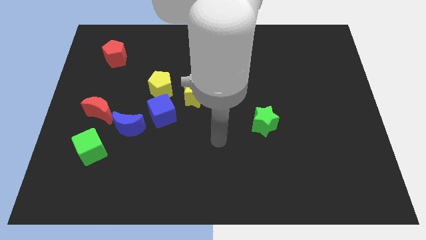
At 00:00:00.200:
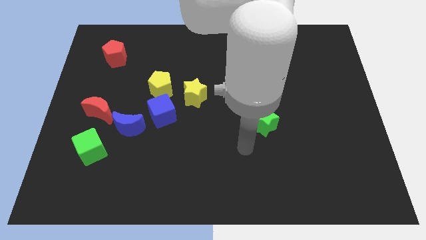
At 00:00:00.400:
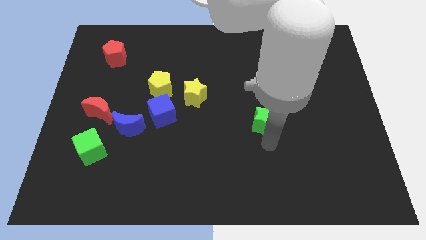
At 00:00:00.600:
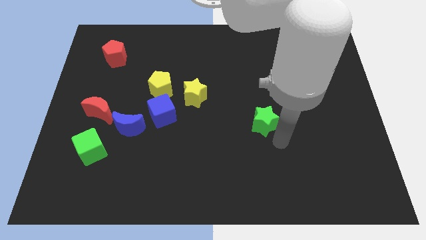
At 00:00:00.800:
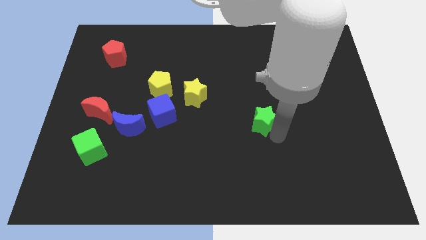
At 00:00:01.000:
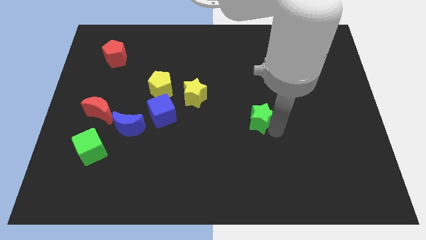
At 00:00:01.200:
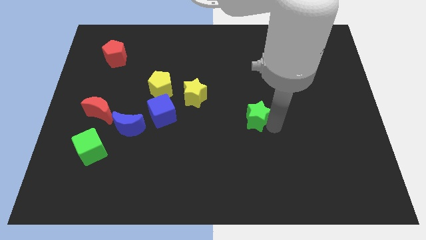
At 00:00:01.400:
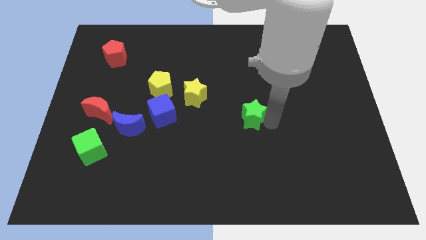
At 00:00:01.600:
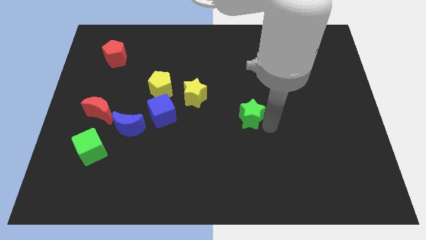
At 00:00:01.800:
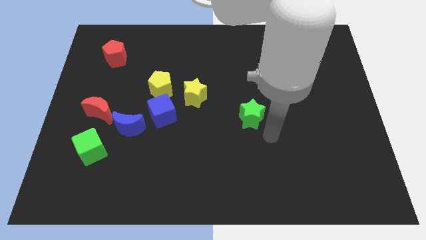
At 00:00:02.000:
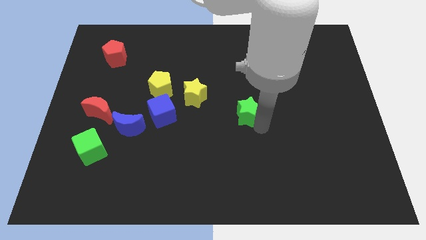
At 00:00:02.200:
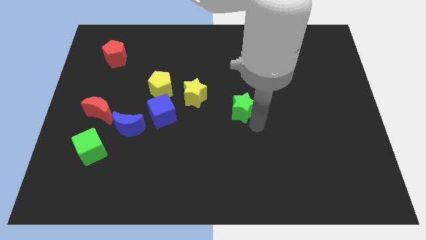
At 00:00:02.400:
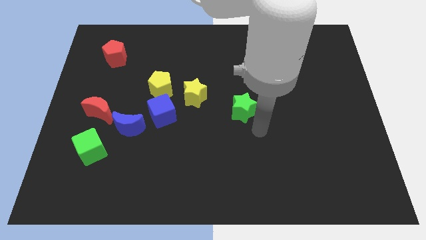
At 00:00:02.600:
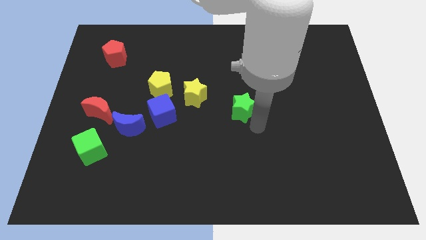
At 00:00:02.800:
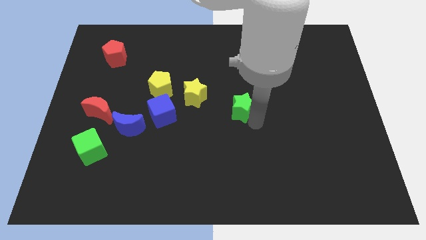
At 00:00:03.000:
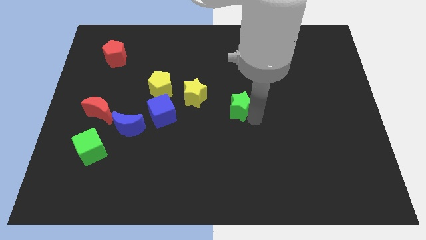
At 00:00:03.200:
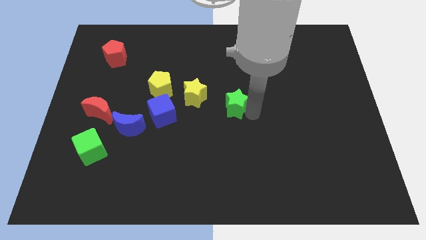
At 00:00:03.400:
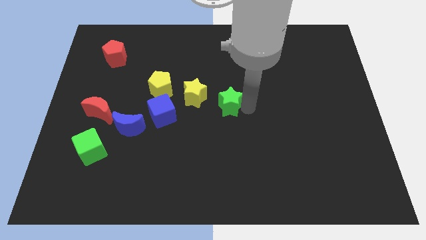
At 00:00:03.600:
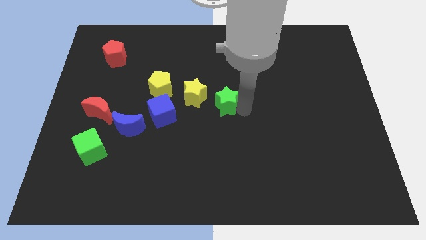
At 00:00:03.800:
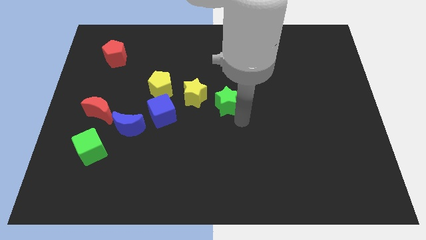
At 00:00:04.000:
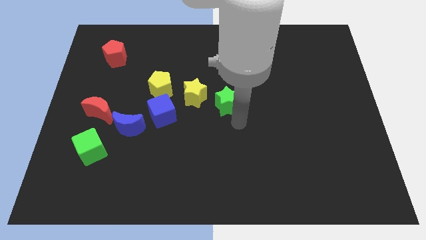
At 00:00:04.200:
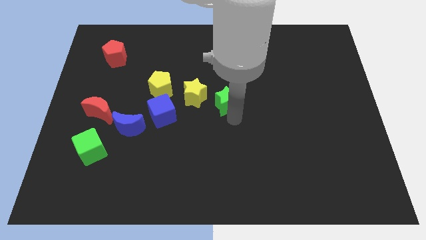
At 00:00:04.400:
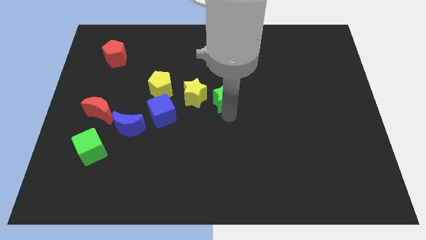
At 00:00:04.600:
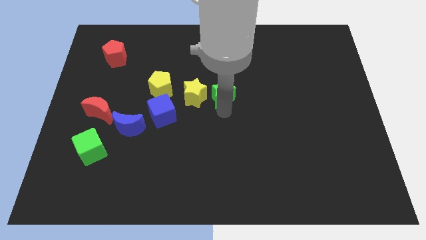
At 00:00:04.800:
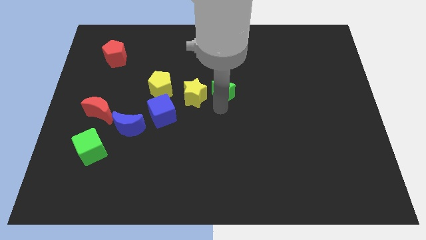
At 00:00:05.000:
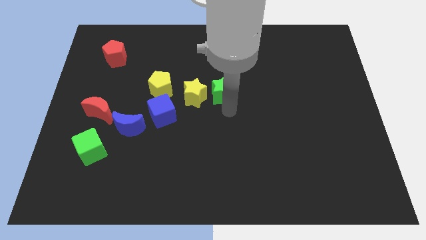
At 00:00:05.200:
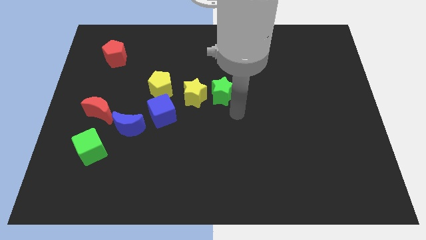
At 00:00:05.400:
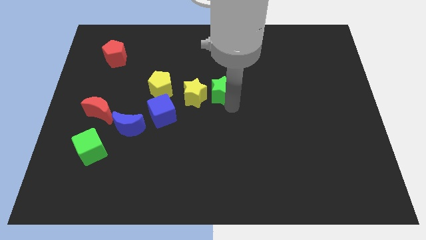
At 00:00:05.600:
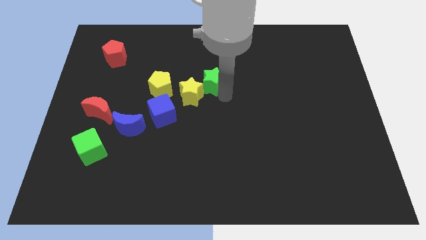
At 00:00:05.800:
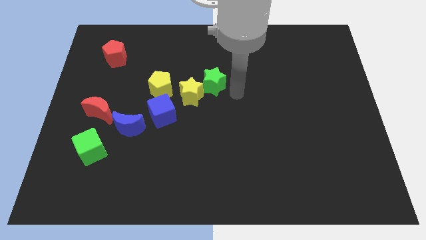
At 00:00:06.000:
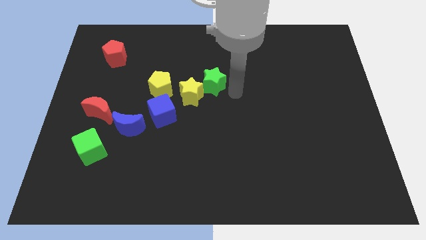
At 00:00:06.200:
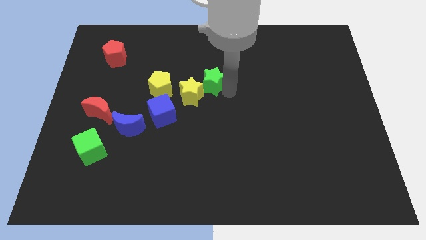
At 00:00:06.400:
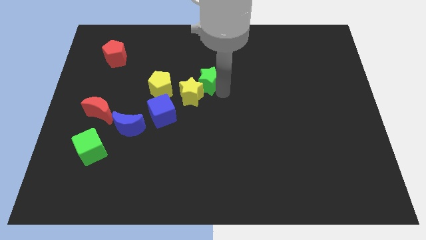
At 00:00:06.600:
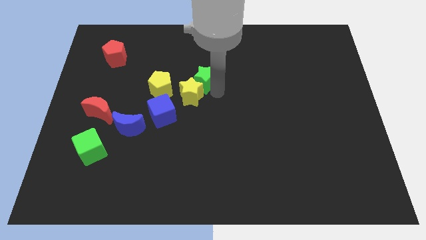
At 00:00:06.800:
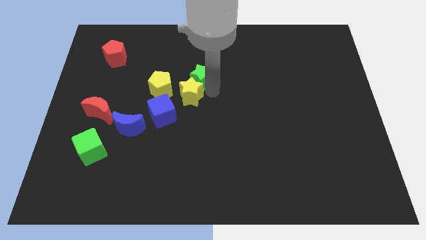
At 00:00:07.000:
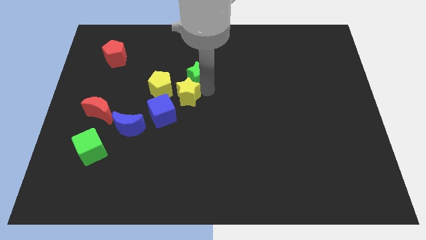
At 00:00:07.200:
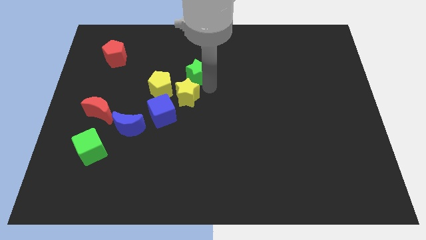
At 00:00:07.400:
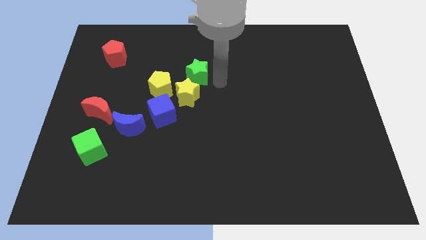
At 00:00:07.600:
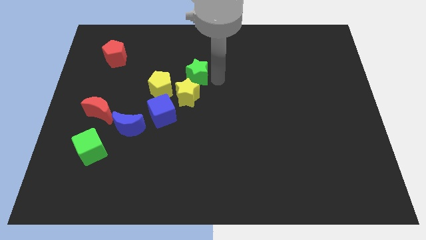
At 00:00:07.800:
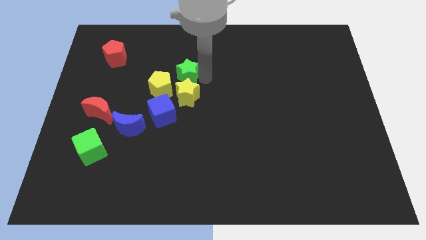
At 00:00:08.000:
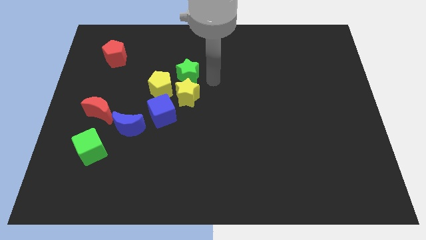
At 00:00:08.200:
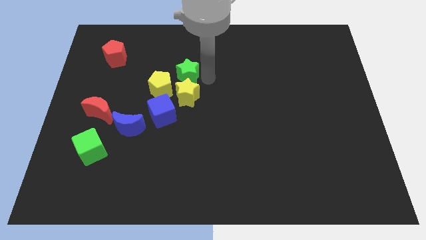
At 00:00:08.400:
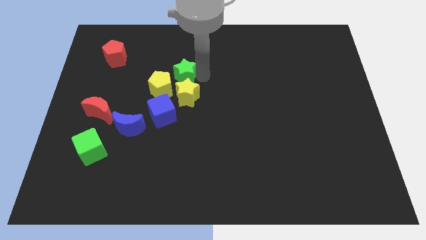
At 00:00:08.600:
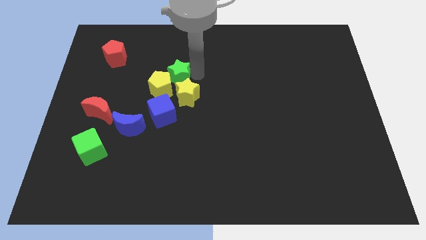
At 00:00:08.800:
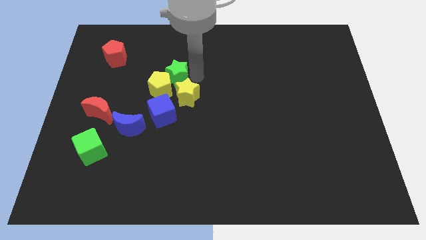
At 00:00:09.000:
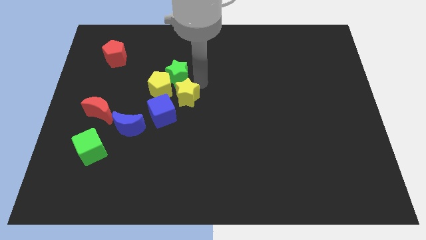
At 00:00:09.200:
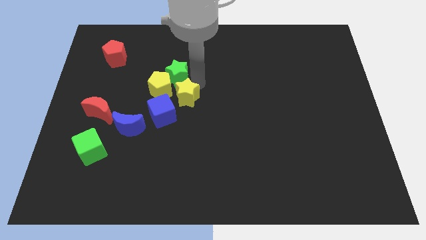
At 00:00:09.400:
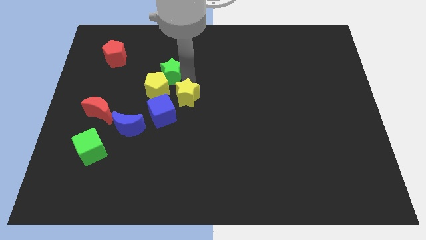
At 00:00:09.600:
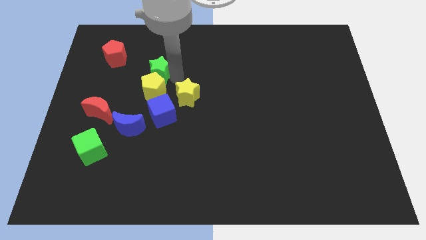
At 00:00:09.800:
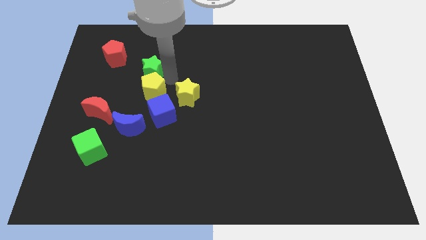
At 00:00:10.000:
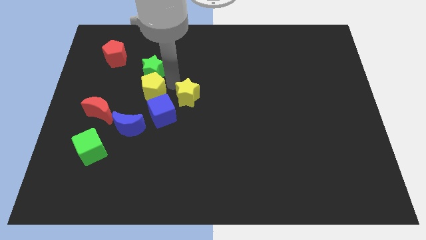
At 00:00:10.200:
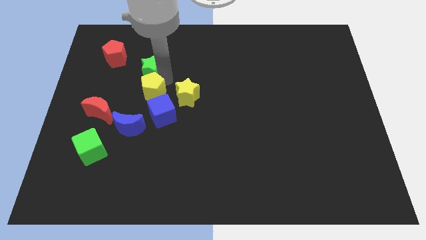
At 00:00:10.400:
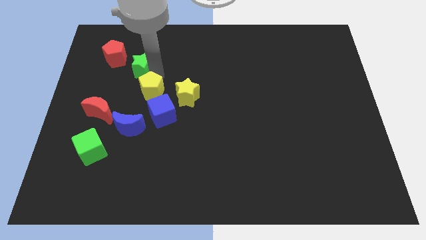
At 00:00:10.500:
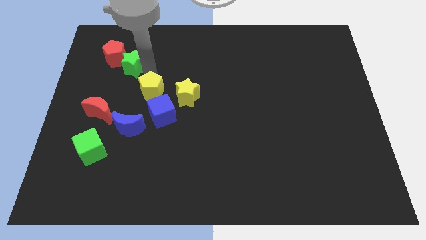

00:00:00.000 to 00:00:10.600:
push the green star next to the red pentagon

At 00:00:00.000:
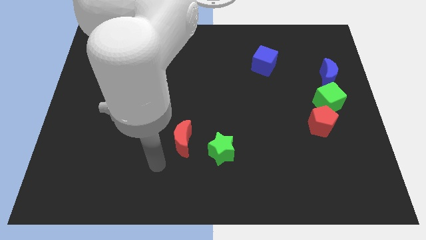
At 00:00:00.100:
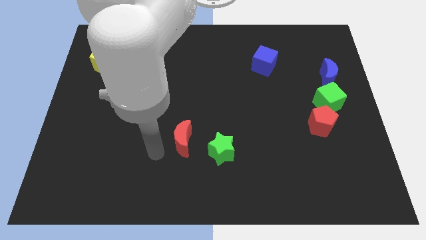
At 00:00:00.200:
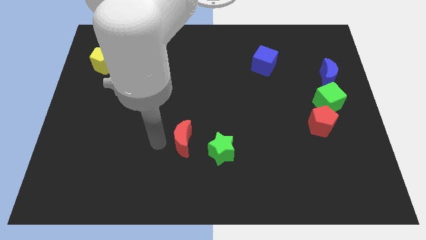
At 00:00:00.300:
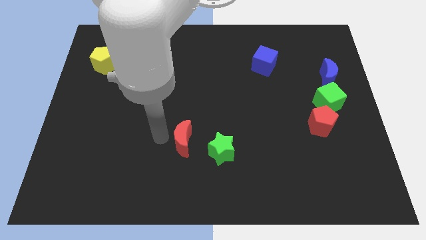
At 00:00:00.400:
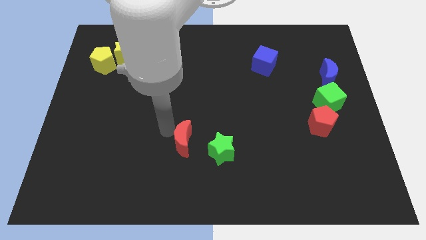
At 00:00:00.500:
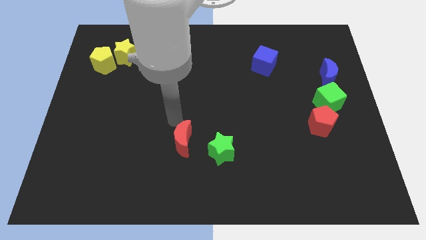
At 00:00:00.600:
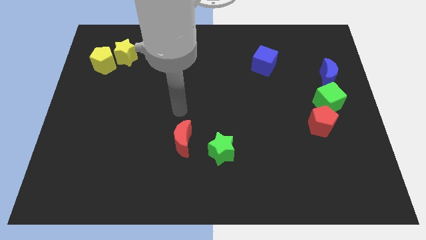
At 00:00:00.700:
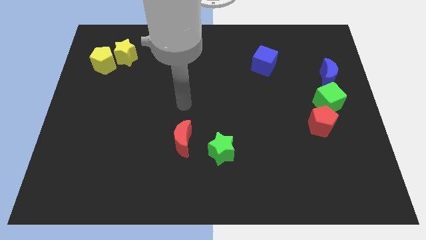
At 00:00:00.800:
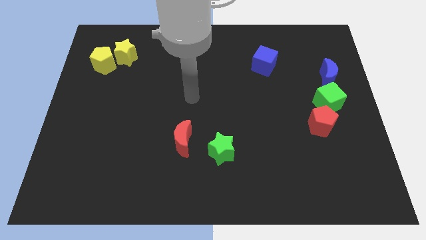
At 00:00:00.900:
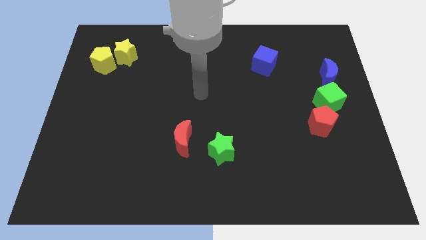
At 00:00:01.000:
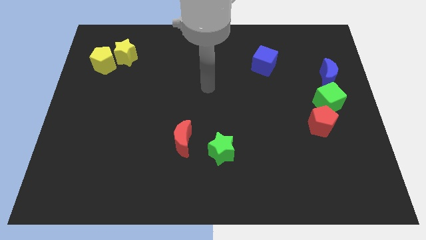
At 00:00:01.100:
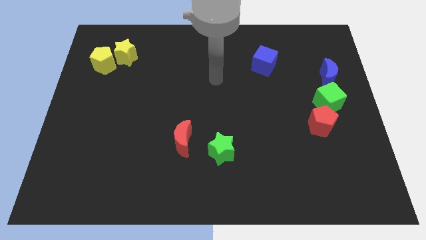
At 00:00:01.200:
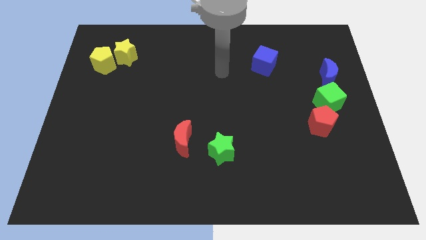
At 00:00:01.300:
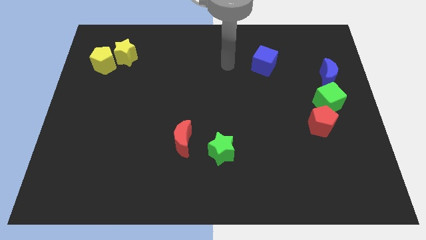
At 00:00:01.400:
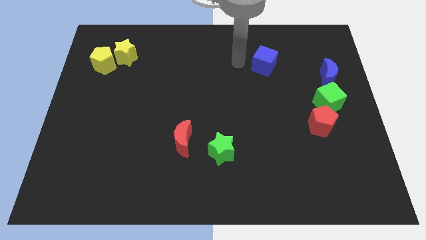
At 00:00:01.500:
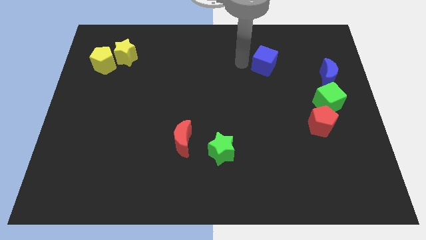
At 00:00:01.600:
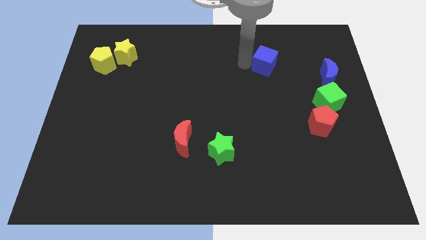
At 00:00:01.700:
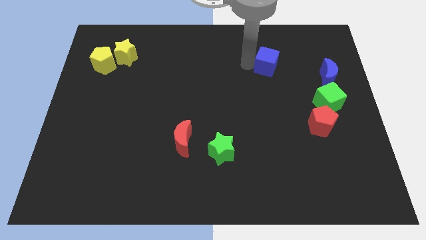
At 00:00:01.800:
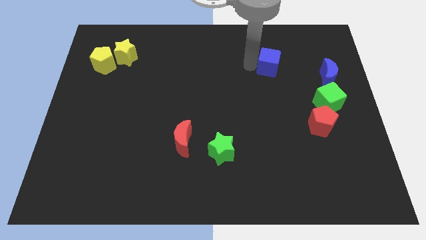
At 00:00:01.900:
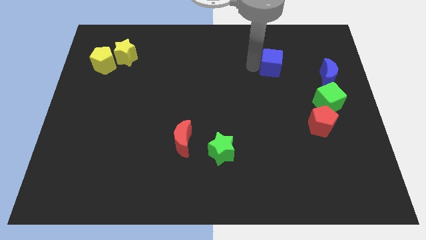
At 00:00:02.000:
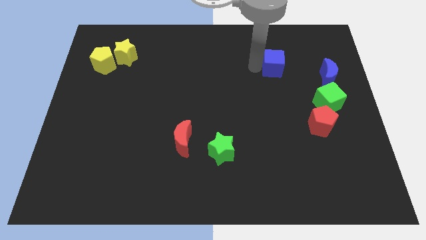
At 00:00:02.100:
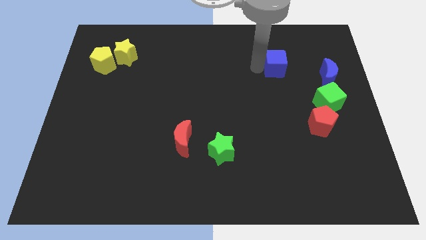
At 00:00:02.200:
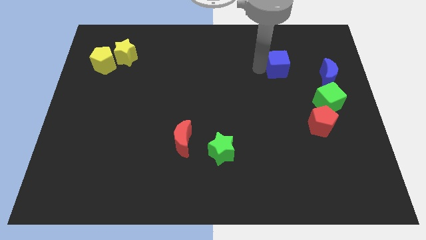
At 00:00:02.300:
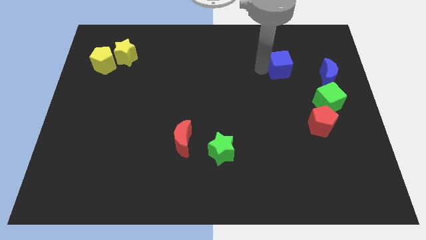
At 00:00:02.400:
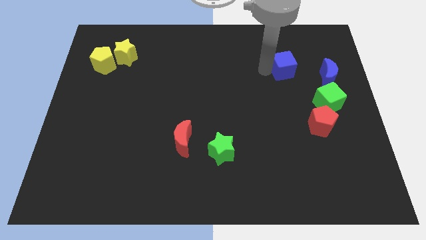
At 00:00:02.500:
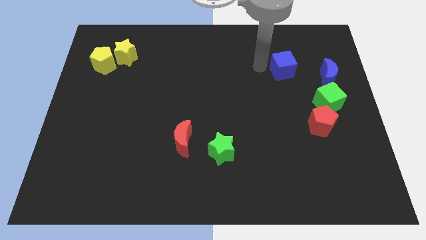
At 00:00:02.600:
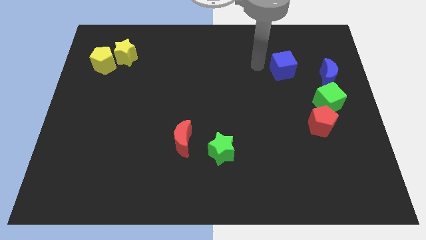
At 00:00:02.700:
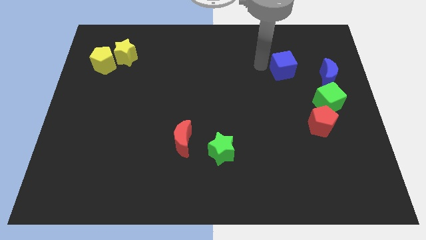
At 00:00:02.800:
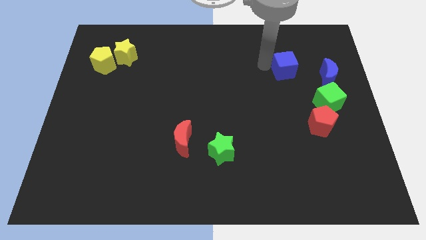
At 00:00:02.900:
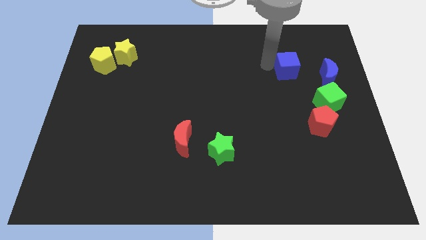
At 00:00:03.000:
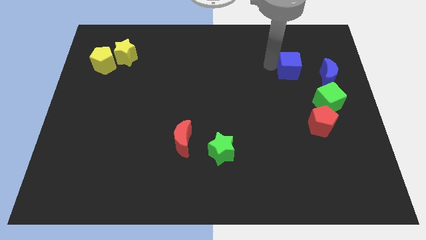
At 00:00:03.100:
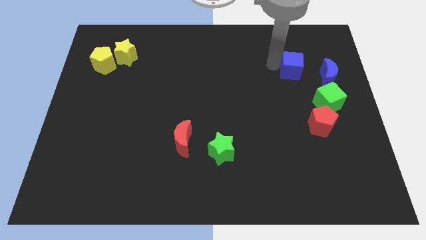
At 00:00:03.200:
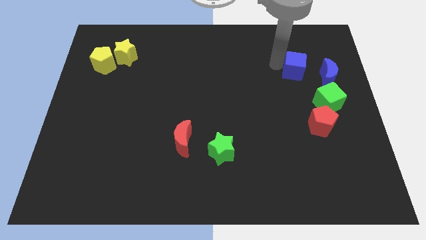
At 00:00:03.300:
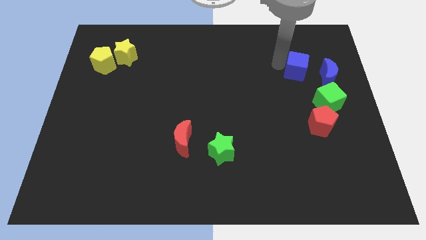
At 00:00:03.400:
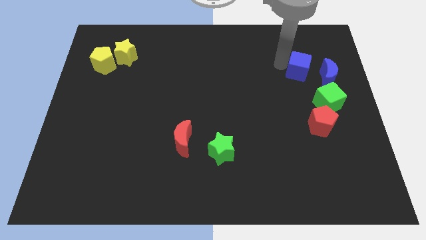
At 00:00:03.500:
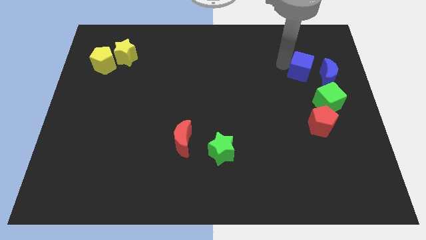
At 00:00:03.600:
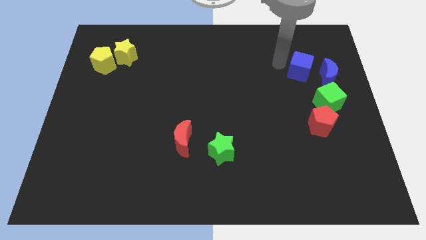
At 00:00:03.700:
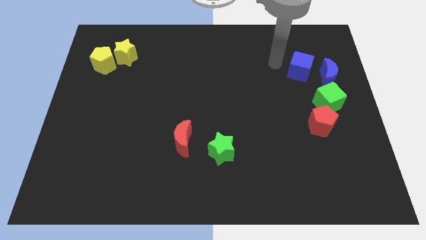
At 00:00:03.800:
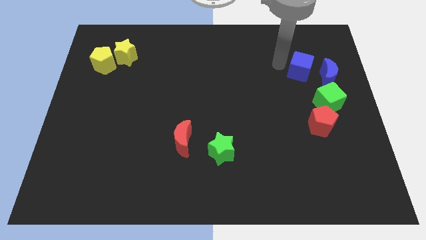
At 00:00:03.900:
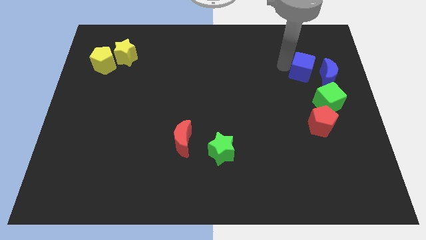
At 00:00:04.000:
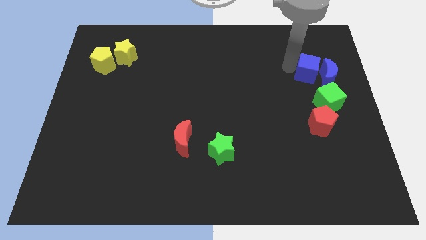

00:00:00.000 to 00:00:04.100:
push the blue cube close to the blue moon
